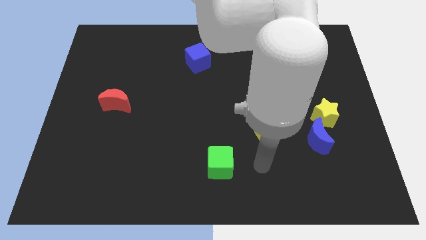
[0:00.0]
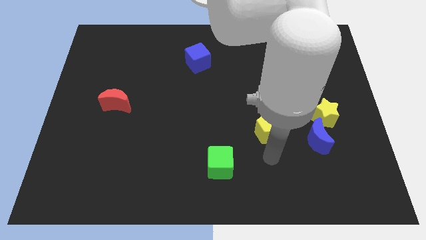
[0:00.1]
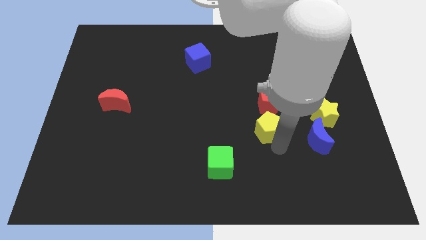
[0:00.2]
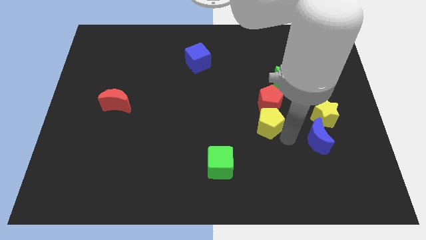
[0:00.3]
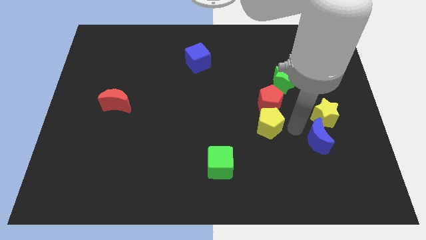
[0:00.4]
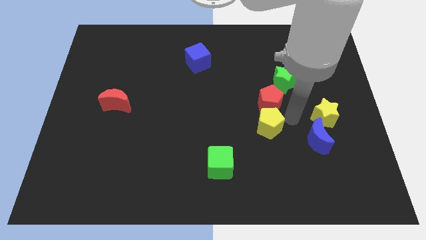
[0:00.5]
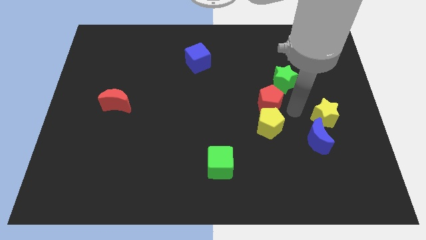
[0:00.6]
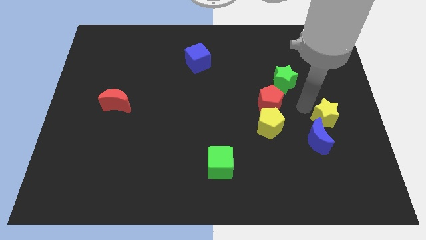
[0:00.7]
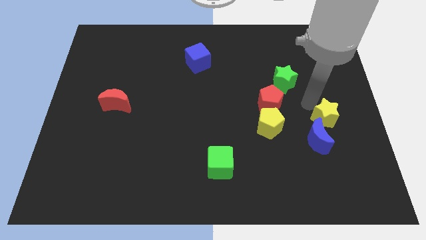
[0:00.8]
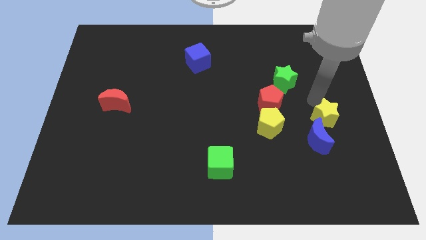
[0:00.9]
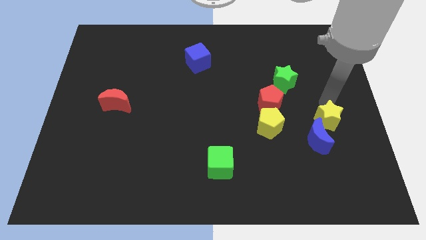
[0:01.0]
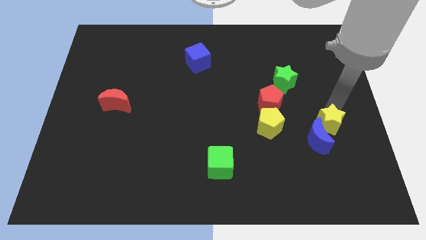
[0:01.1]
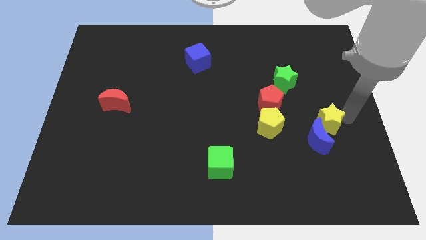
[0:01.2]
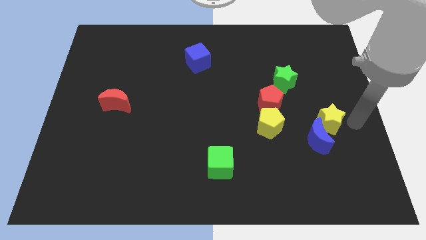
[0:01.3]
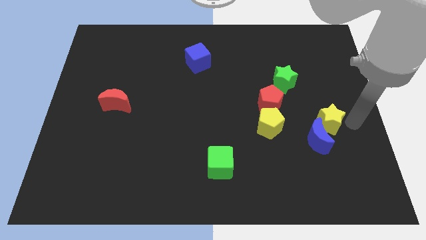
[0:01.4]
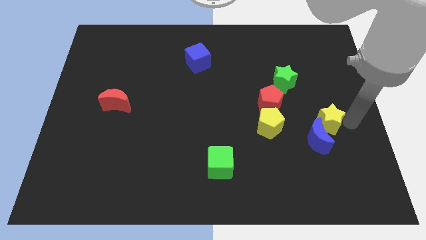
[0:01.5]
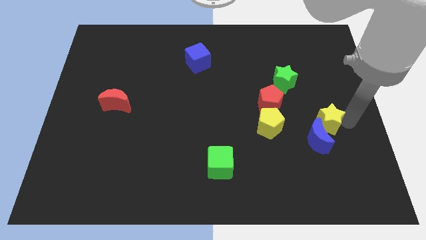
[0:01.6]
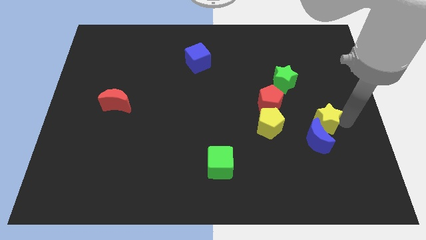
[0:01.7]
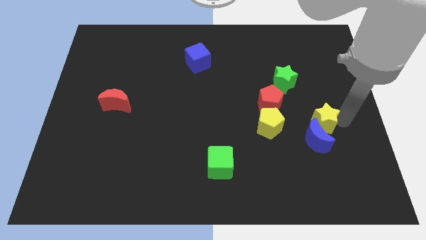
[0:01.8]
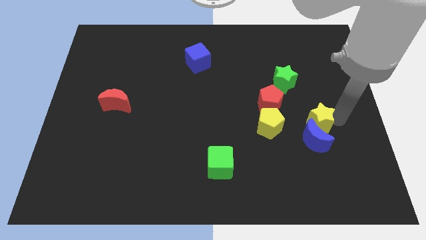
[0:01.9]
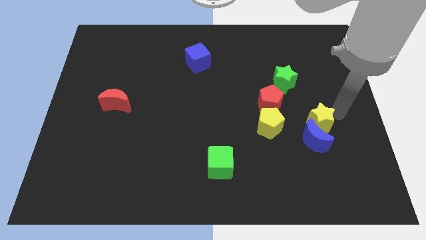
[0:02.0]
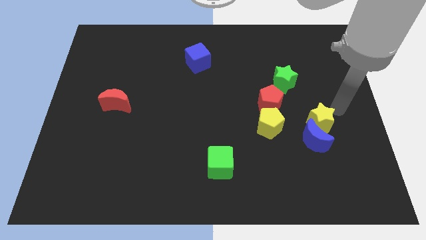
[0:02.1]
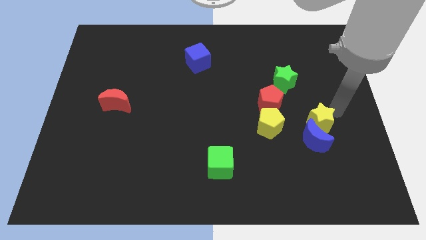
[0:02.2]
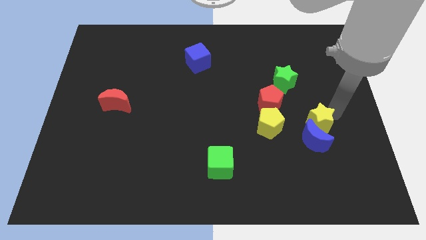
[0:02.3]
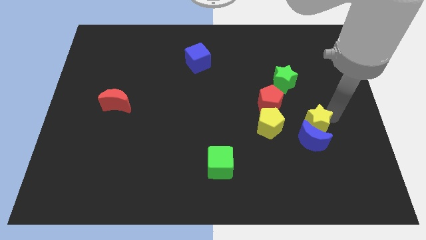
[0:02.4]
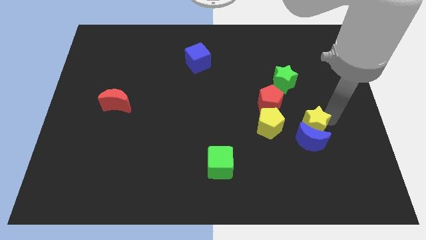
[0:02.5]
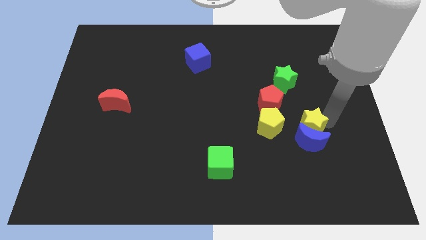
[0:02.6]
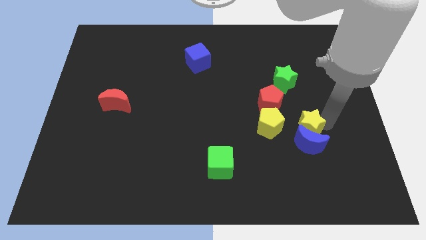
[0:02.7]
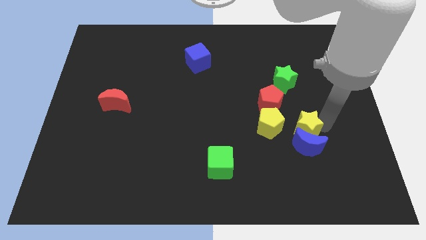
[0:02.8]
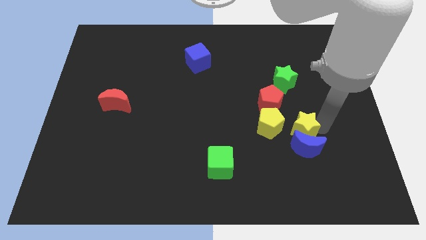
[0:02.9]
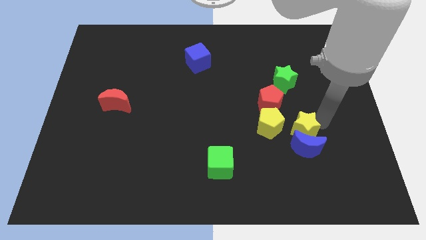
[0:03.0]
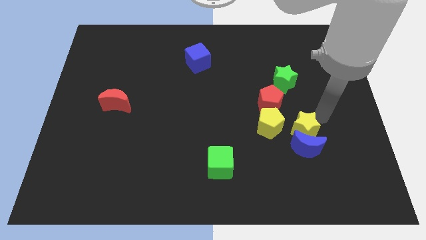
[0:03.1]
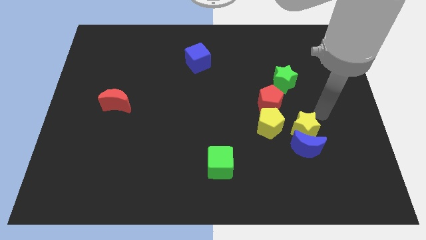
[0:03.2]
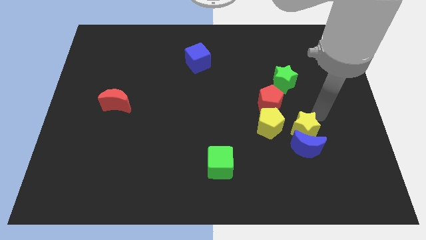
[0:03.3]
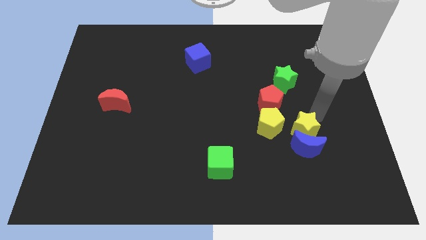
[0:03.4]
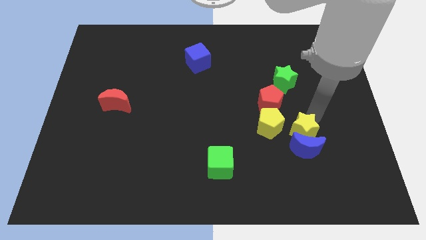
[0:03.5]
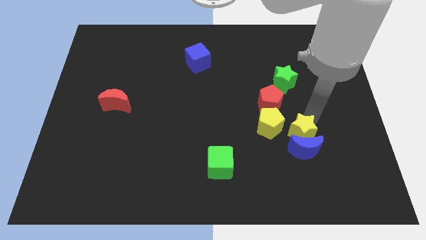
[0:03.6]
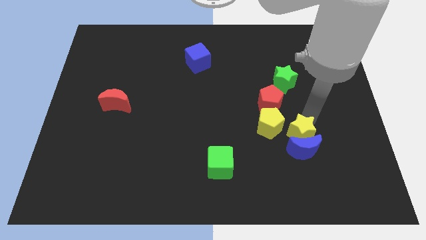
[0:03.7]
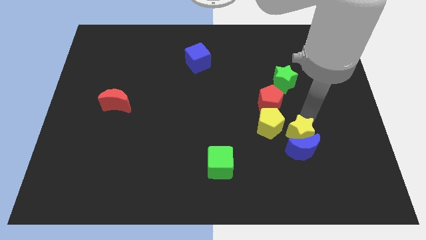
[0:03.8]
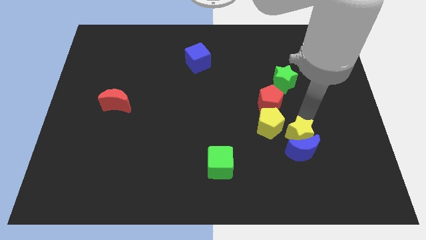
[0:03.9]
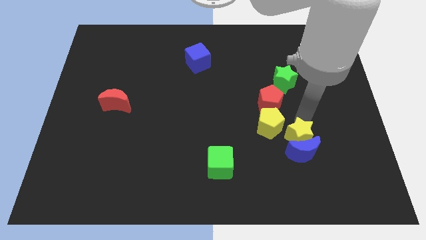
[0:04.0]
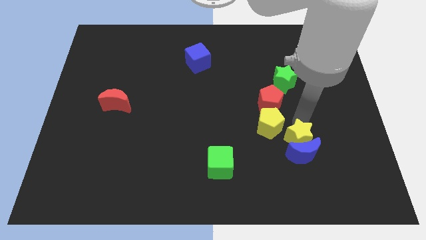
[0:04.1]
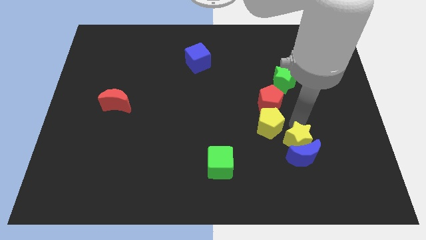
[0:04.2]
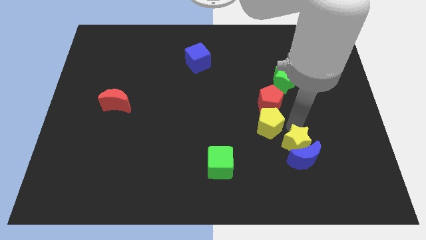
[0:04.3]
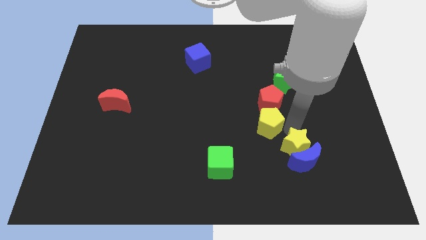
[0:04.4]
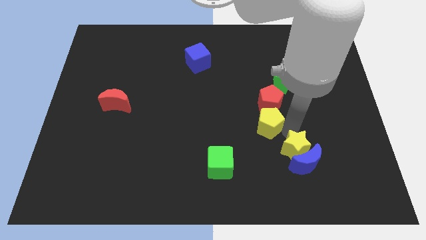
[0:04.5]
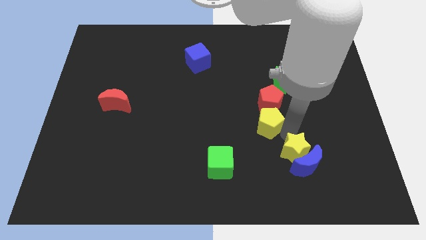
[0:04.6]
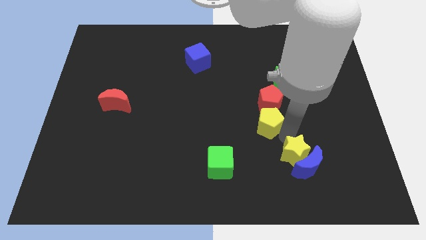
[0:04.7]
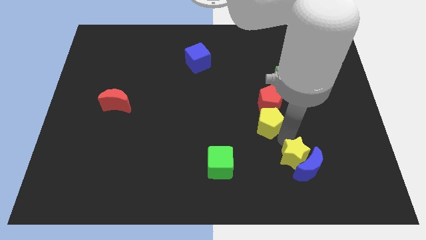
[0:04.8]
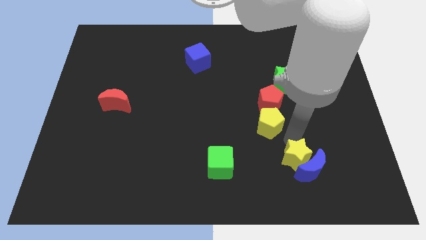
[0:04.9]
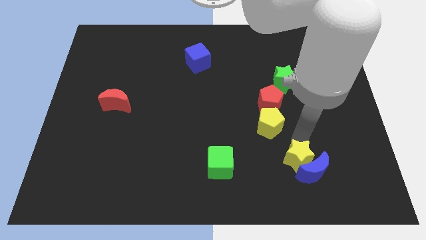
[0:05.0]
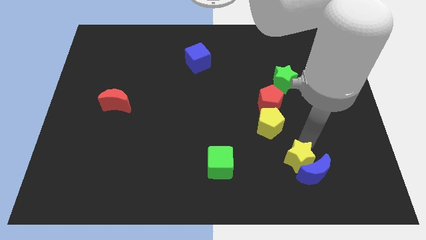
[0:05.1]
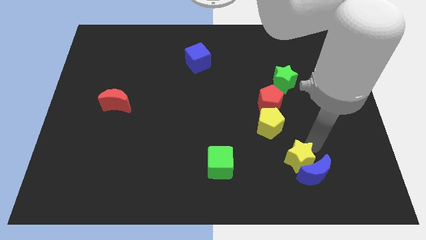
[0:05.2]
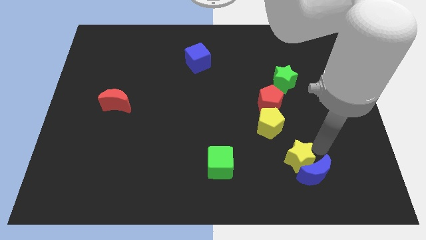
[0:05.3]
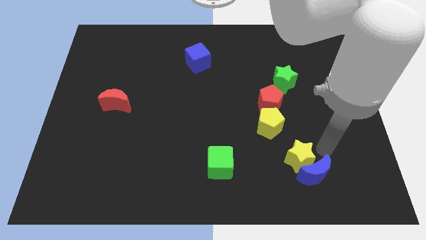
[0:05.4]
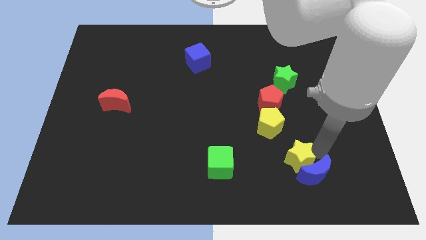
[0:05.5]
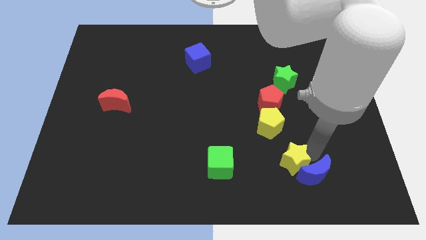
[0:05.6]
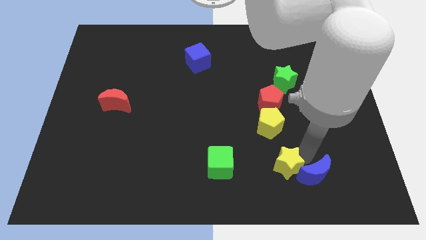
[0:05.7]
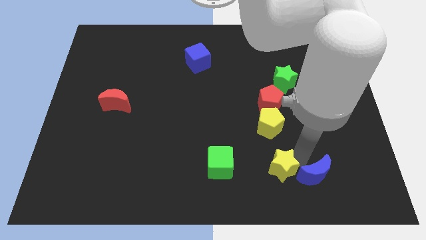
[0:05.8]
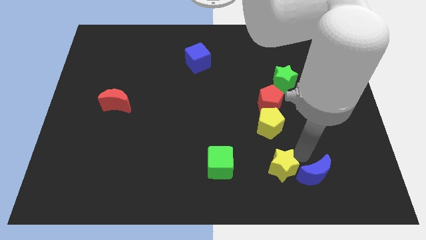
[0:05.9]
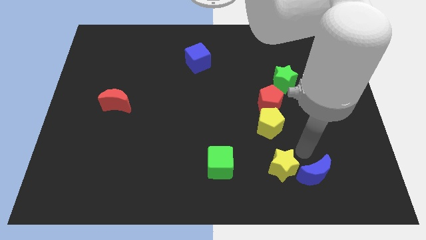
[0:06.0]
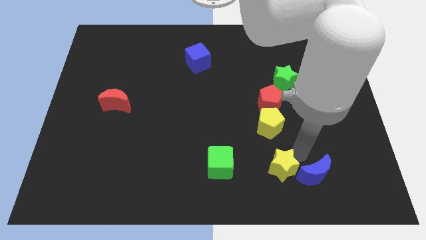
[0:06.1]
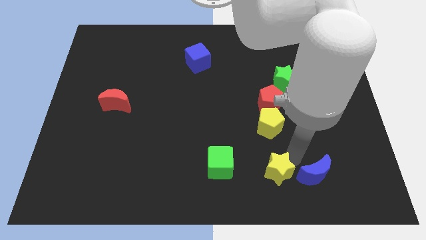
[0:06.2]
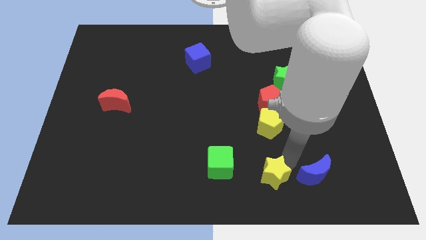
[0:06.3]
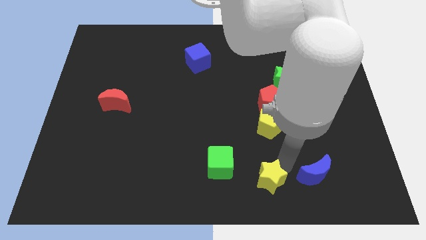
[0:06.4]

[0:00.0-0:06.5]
put the yellow star to the bottom side

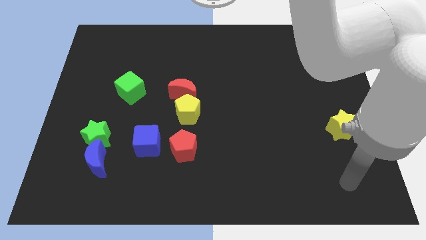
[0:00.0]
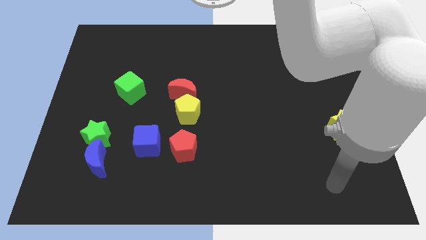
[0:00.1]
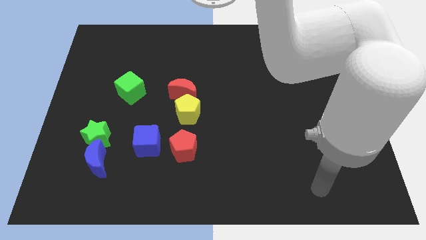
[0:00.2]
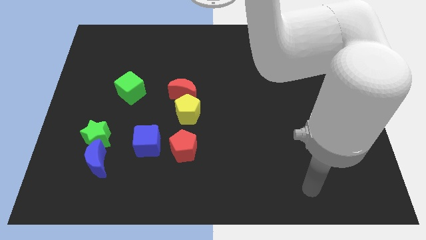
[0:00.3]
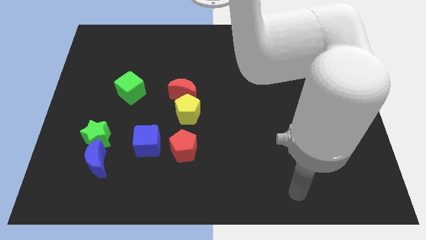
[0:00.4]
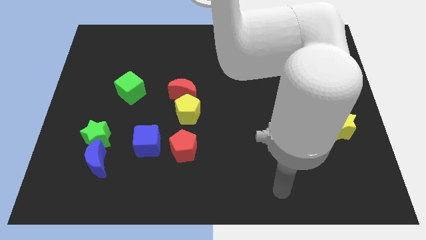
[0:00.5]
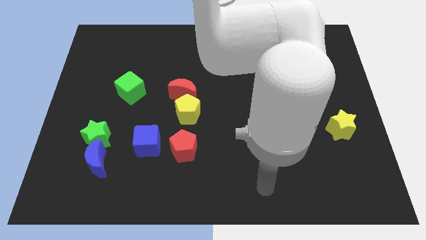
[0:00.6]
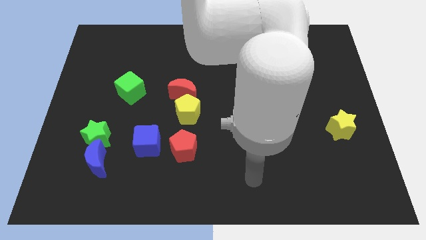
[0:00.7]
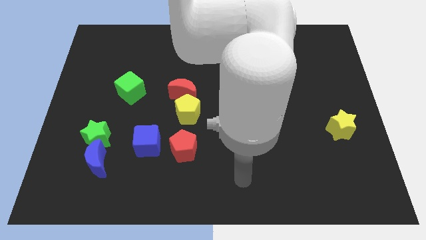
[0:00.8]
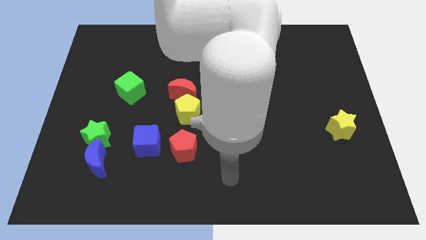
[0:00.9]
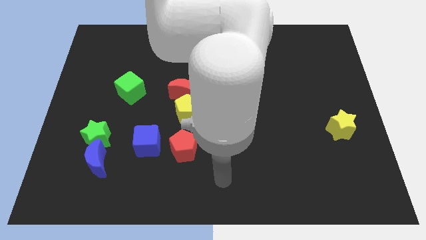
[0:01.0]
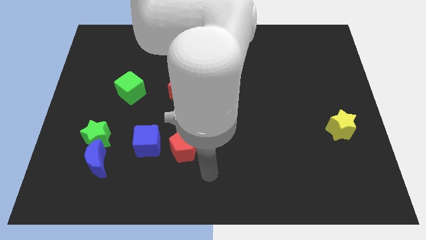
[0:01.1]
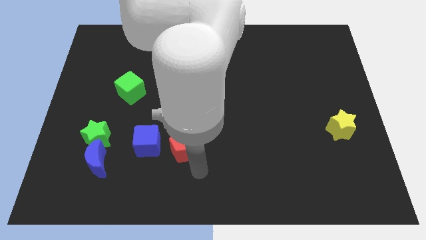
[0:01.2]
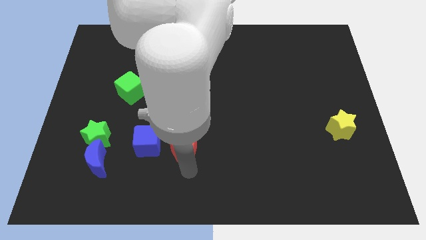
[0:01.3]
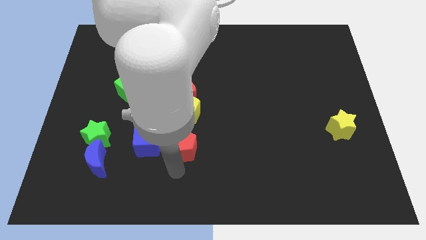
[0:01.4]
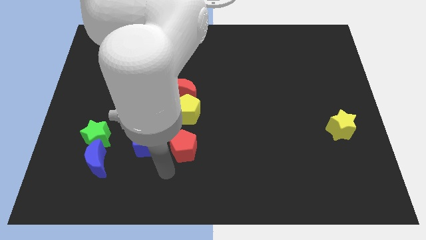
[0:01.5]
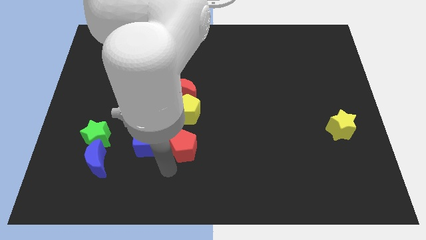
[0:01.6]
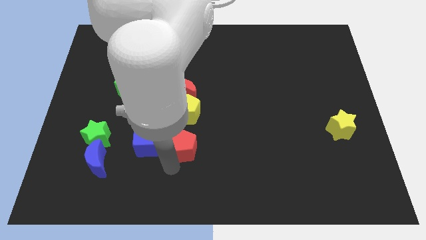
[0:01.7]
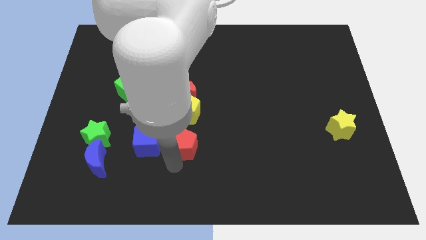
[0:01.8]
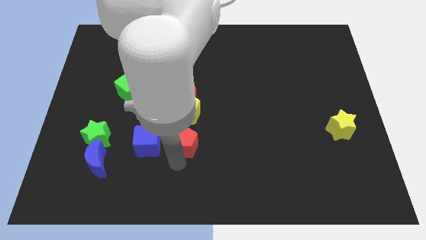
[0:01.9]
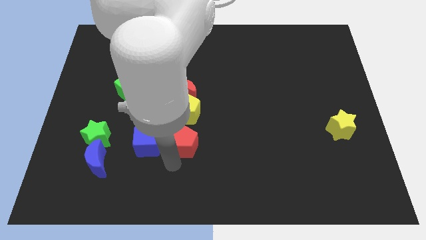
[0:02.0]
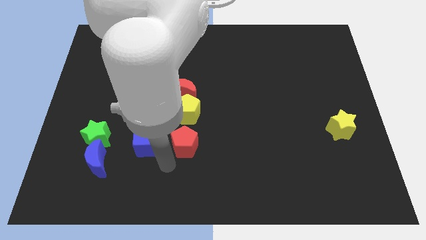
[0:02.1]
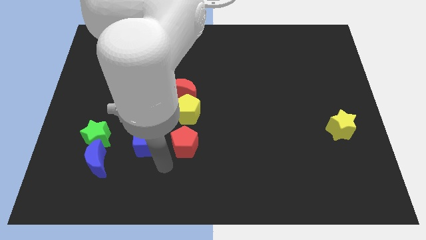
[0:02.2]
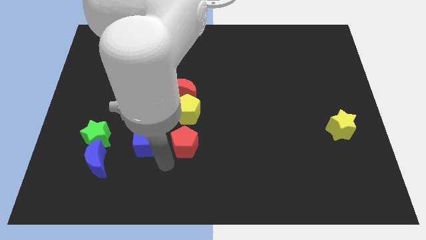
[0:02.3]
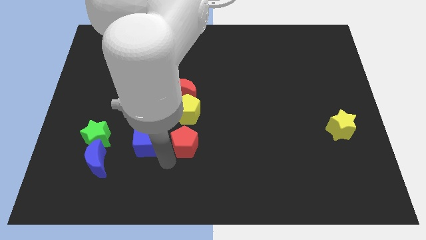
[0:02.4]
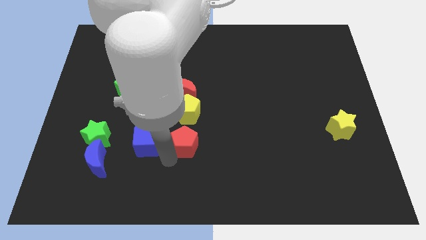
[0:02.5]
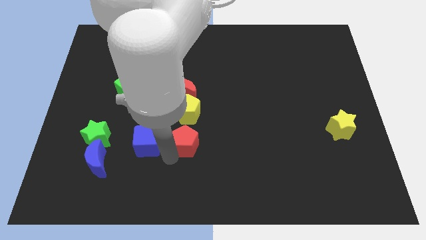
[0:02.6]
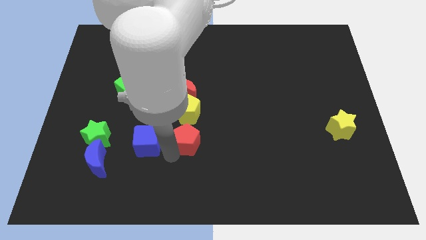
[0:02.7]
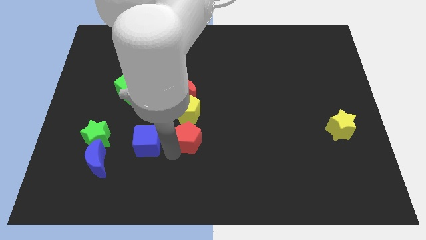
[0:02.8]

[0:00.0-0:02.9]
move the red pentagon to the middle of the board
